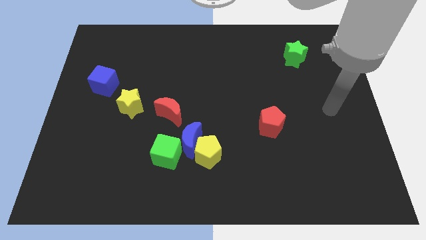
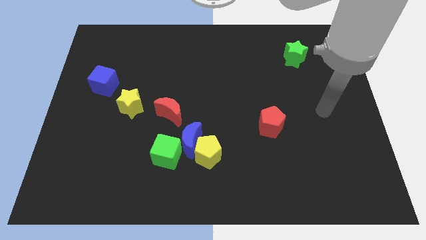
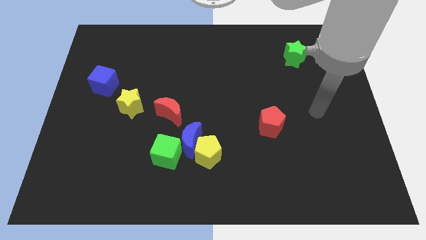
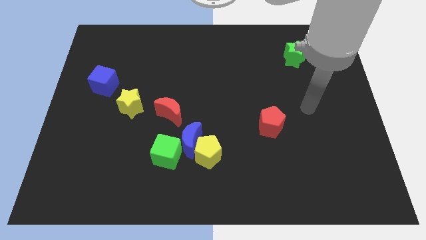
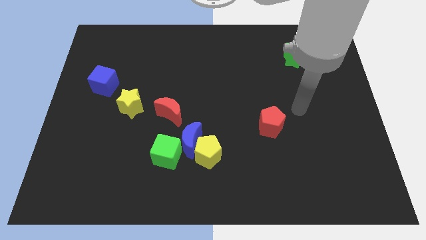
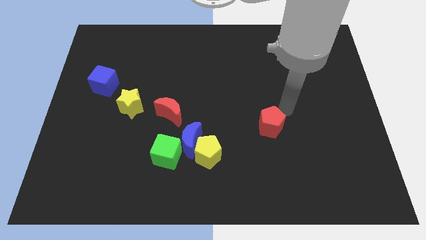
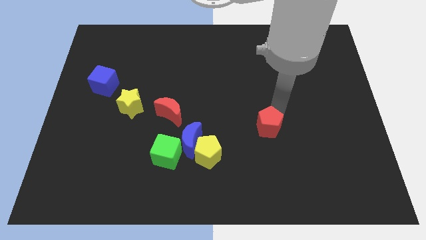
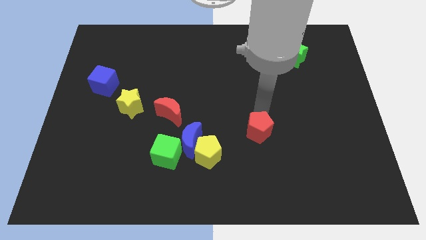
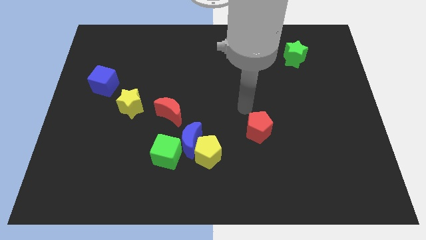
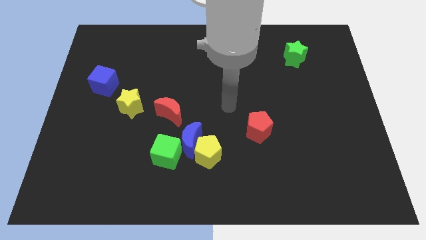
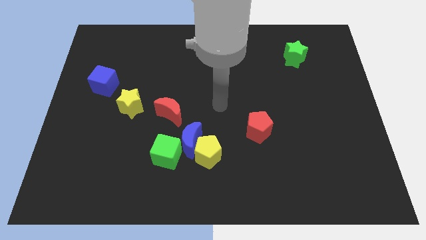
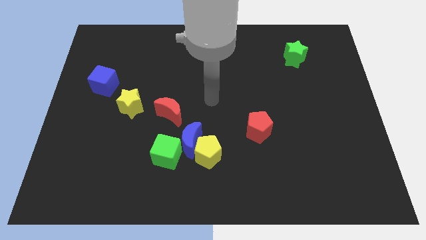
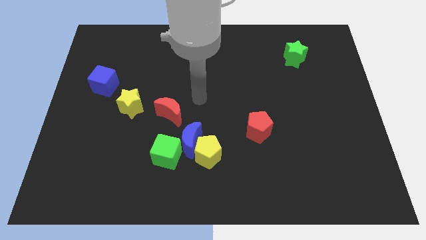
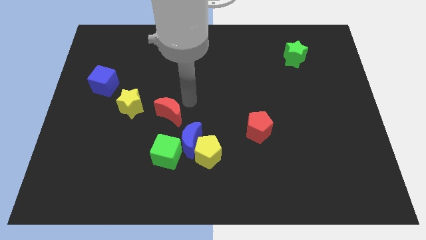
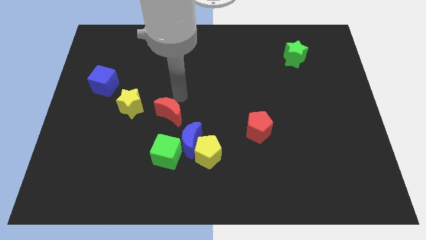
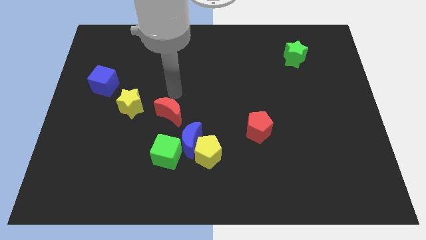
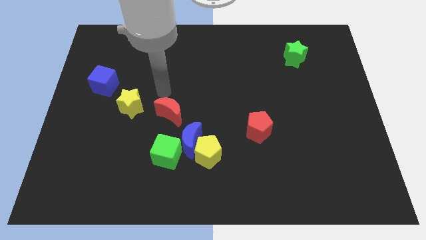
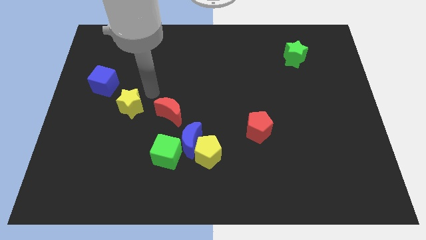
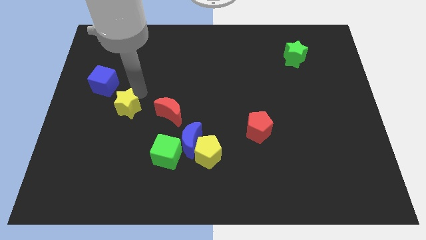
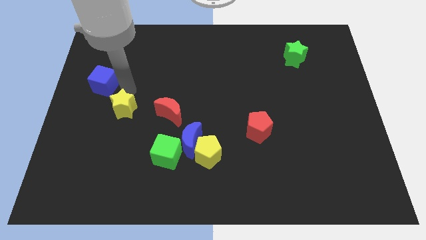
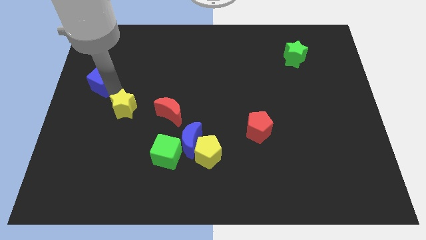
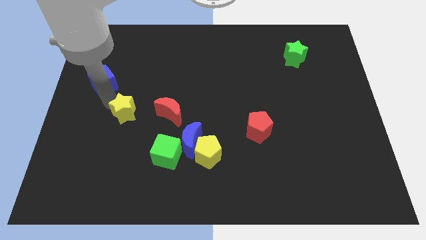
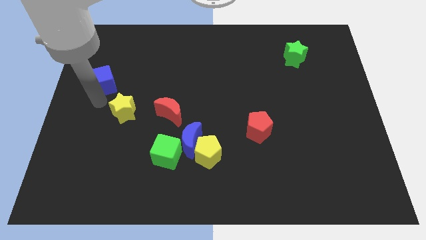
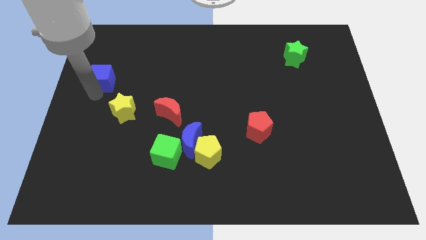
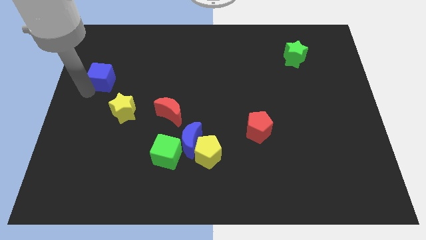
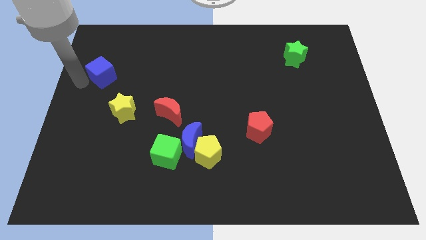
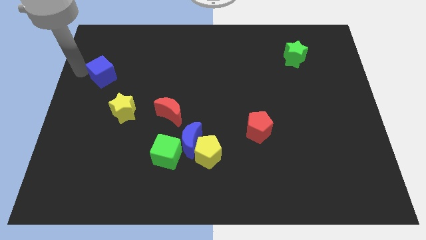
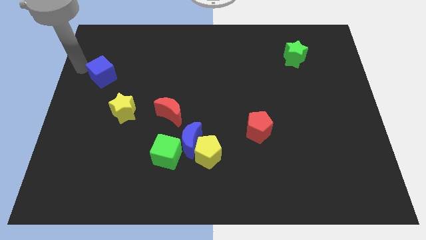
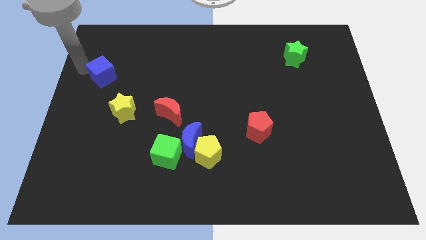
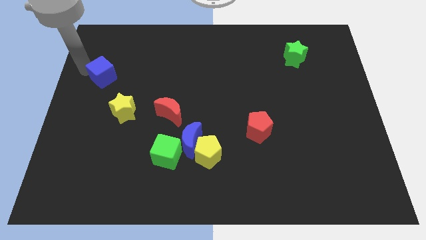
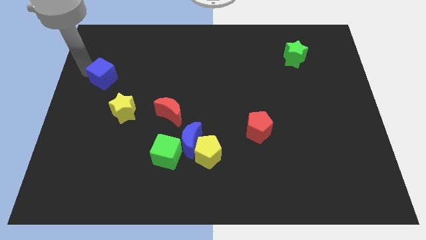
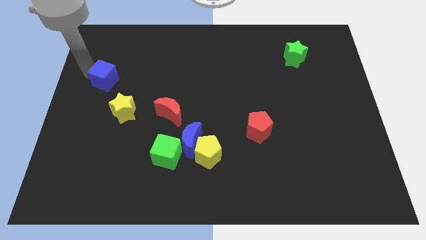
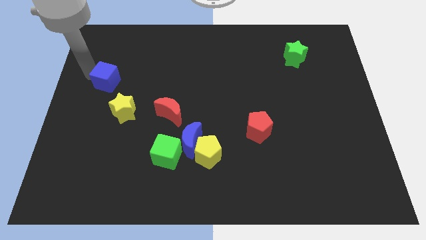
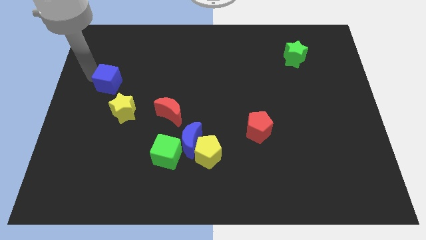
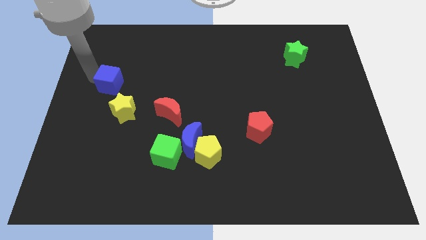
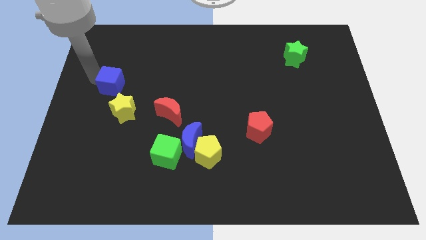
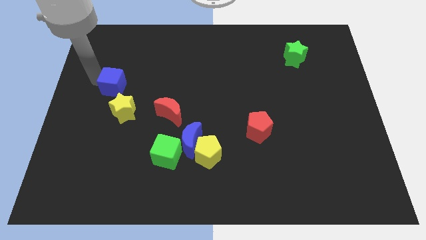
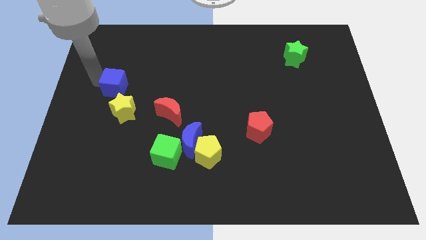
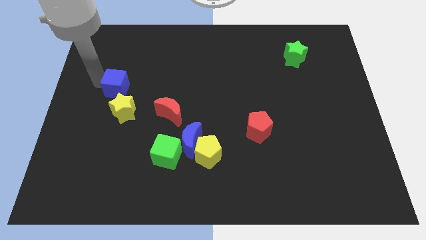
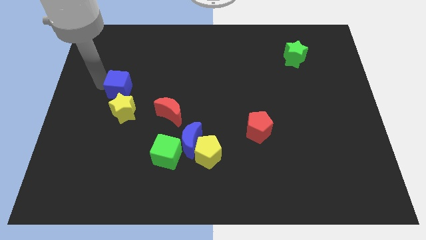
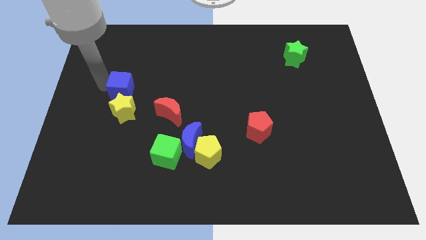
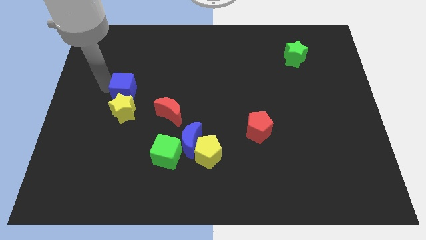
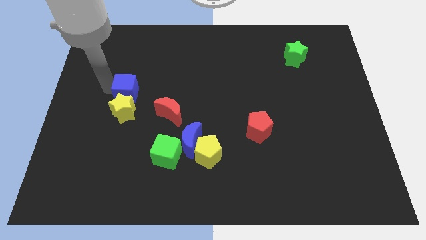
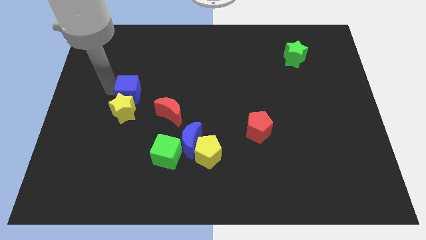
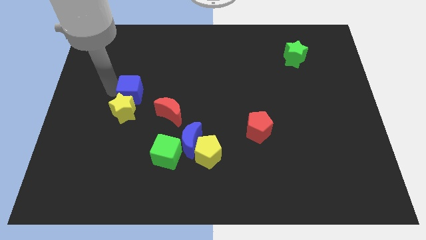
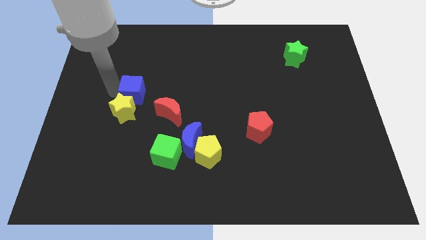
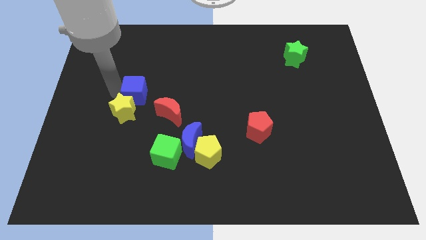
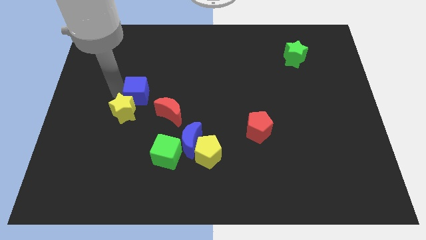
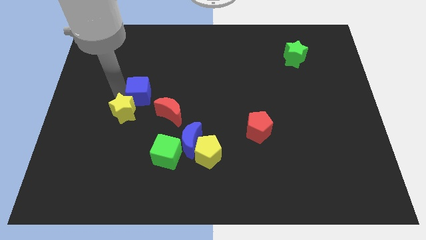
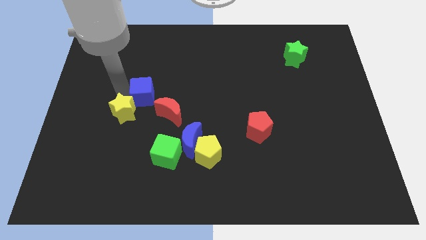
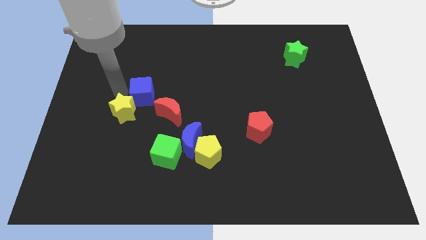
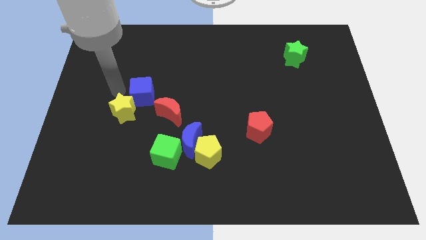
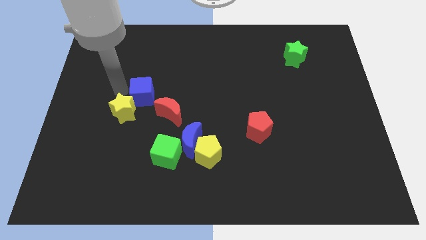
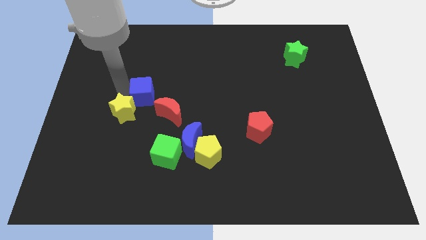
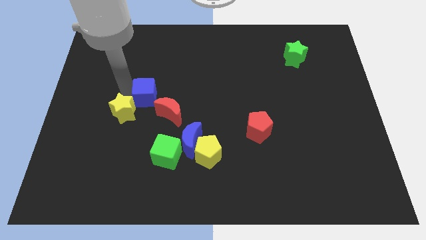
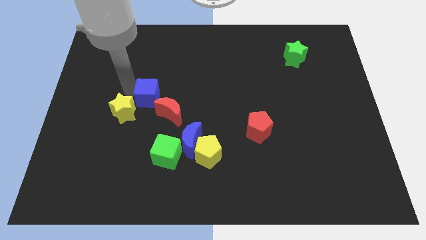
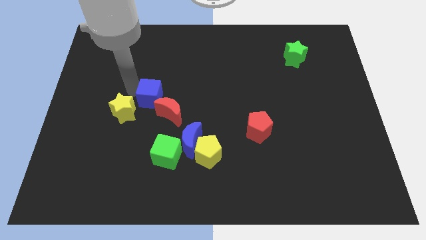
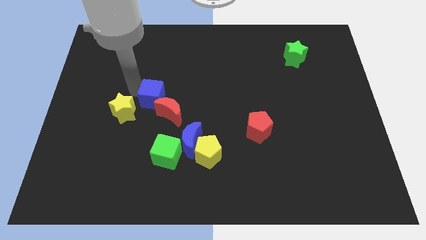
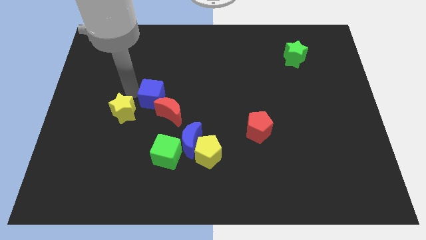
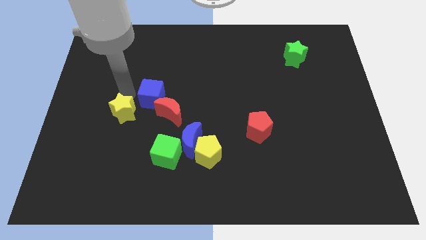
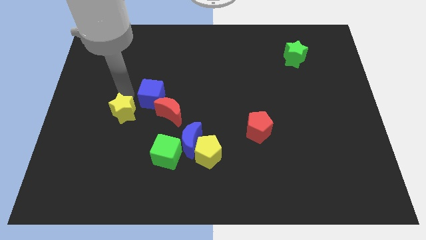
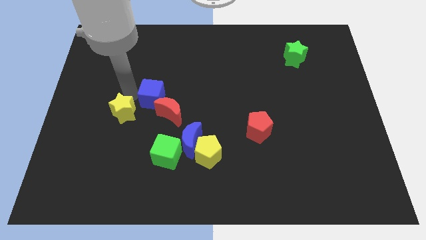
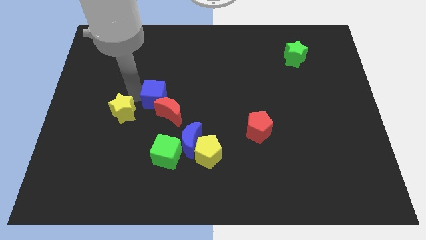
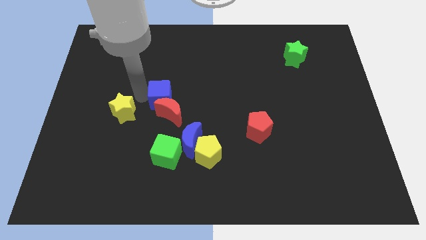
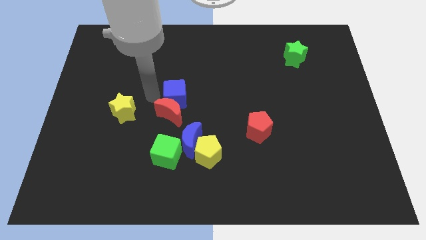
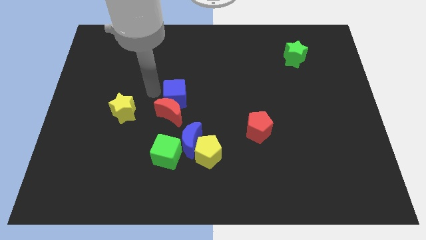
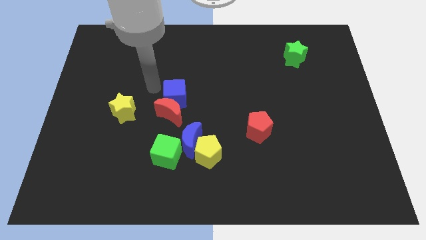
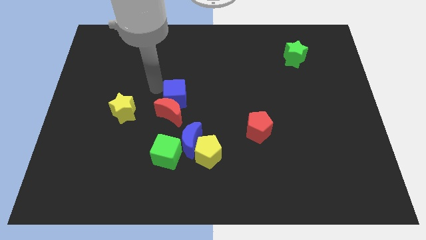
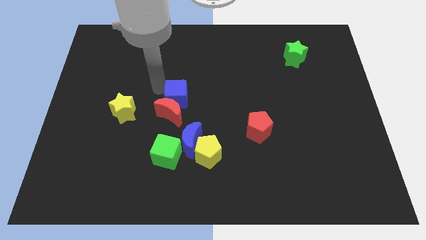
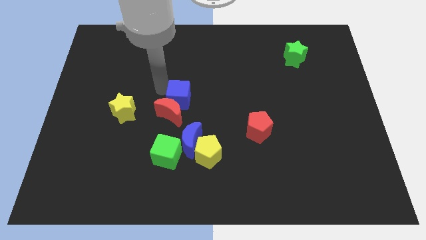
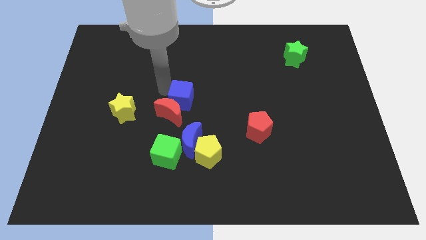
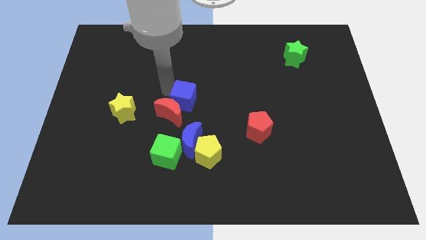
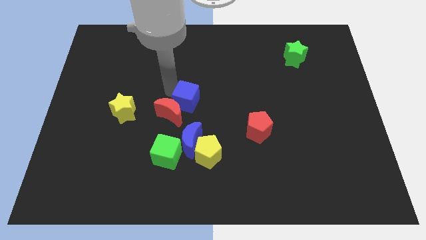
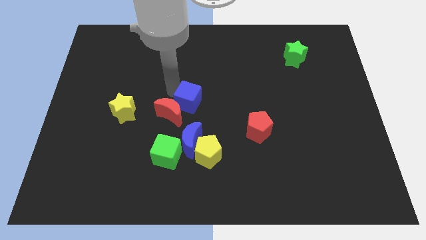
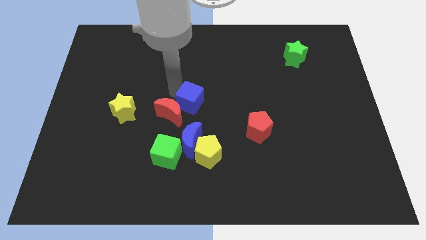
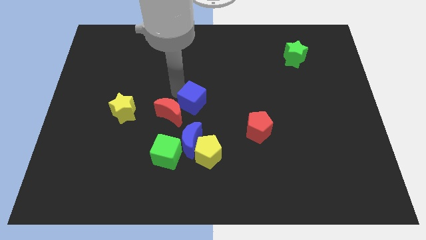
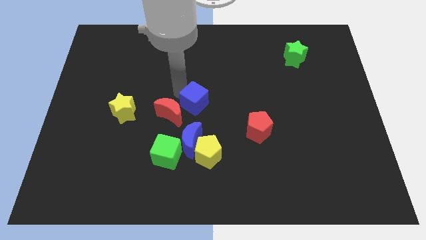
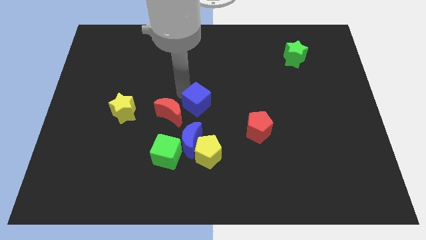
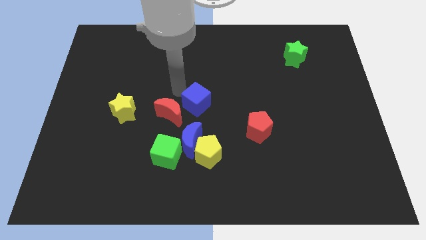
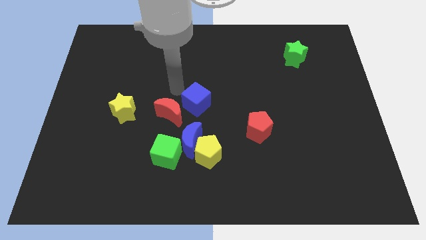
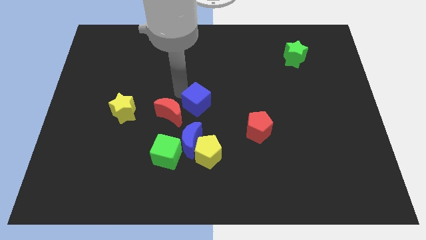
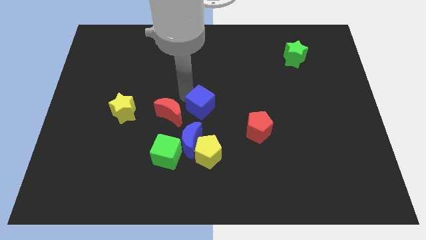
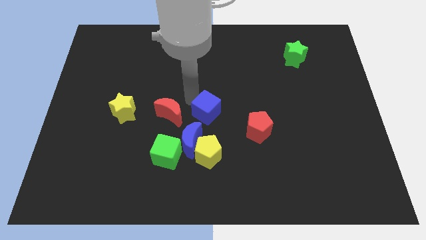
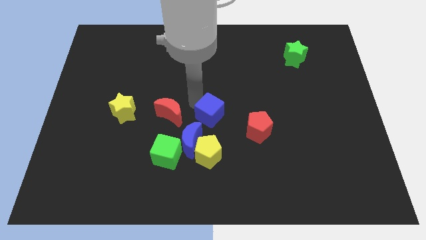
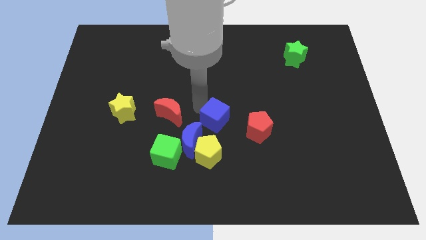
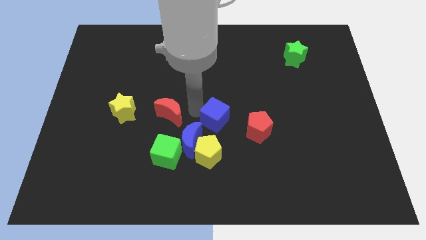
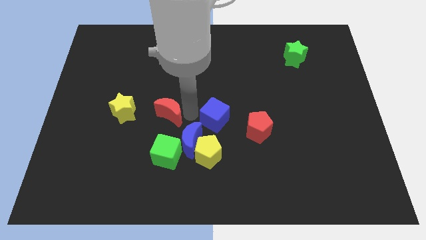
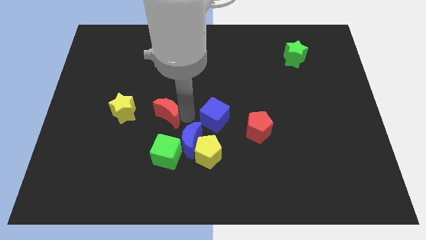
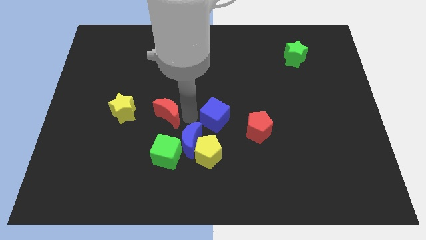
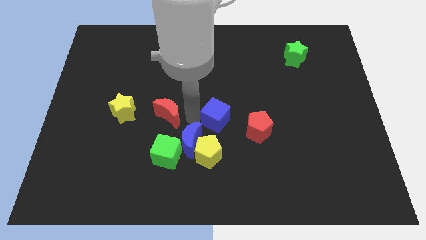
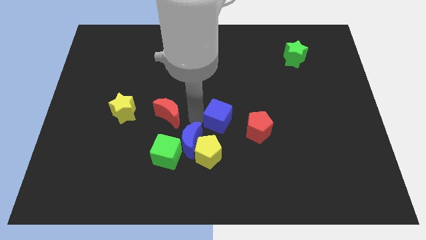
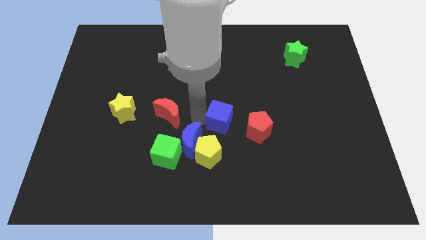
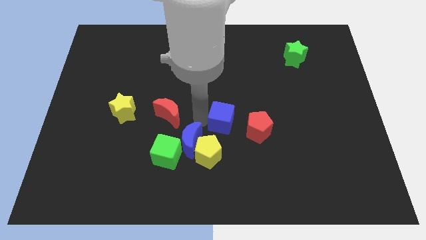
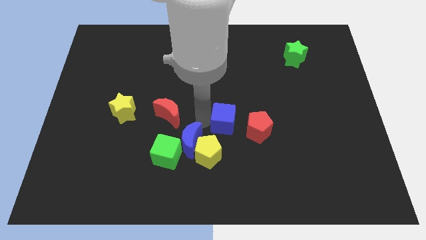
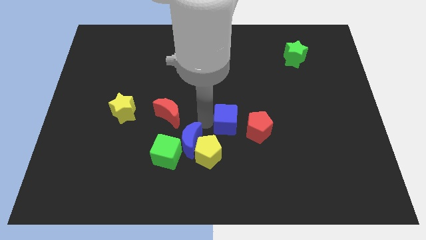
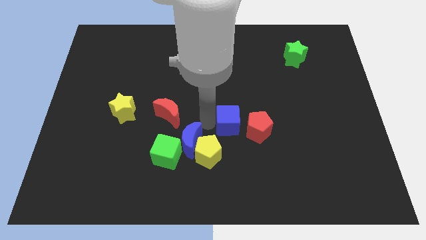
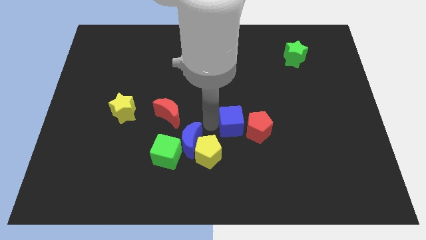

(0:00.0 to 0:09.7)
put the blue cube to the red pentagon
